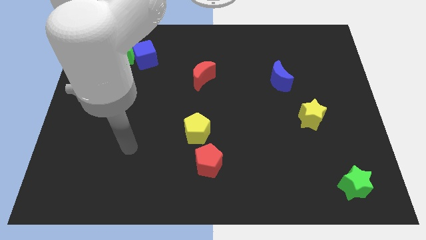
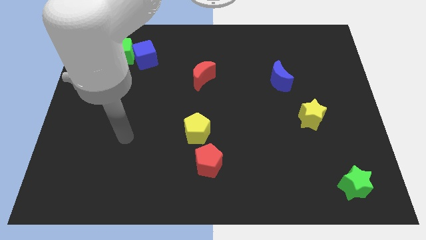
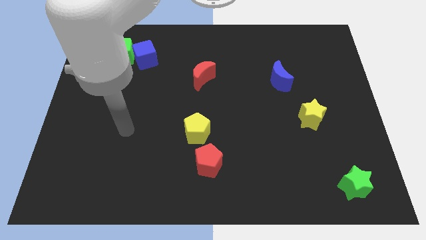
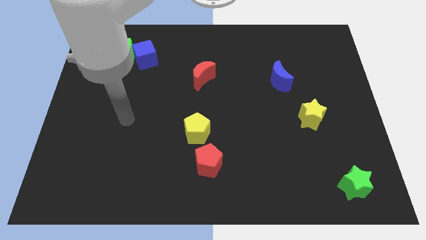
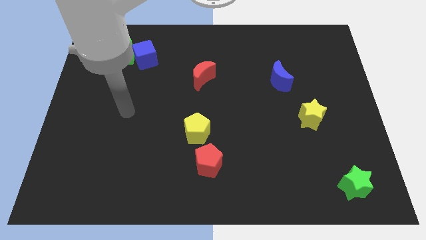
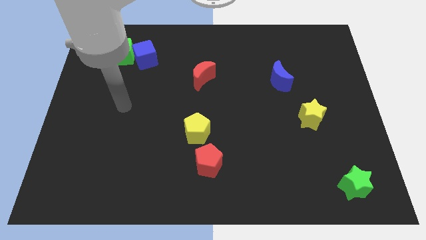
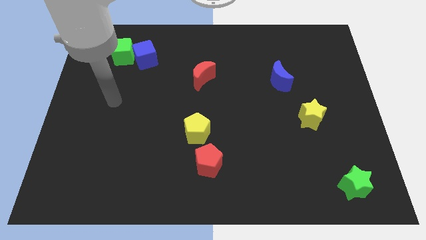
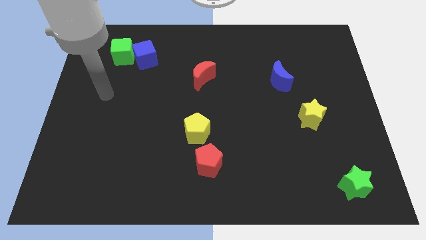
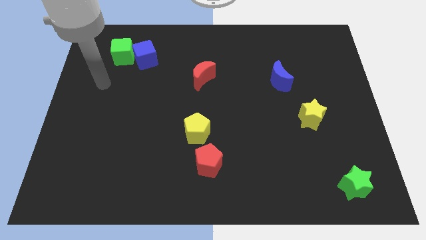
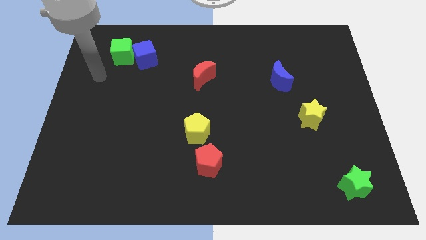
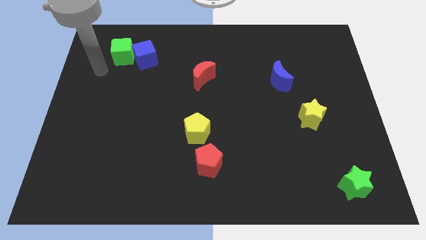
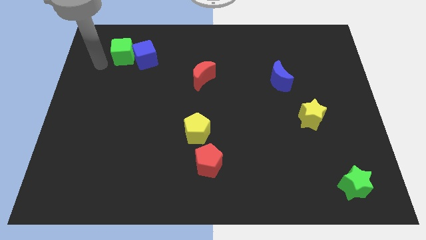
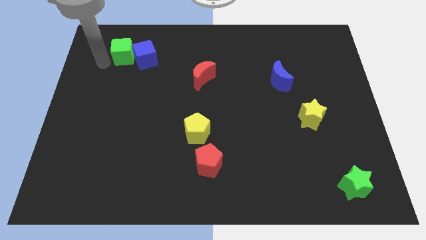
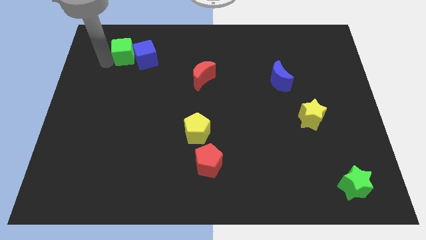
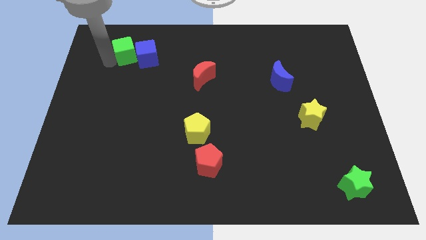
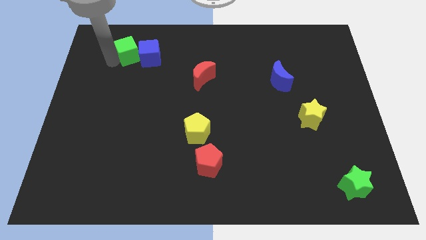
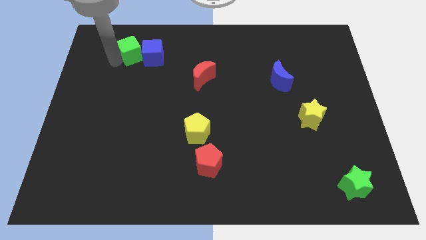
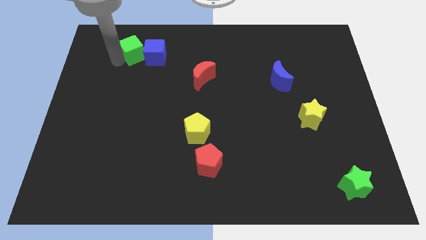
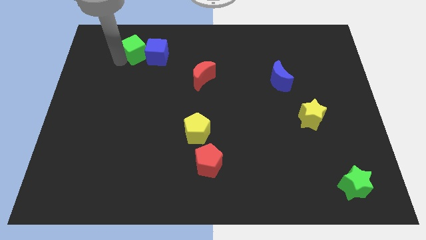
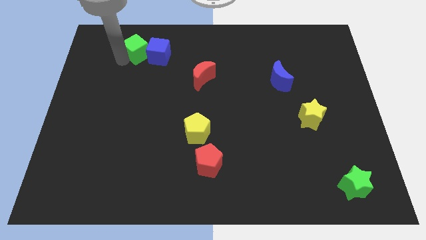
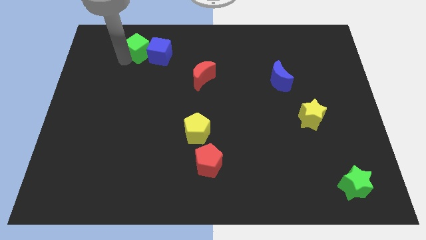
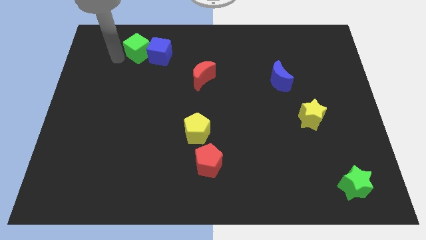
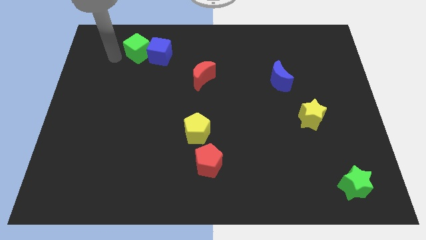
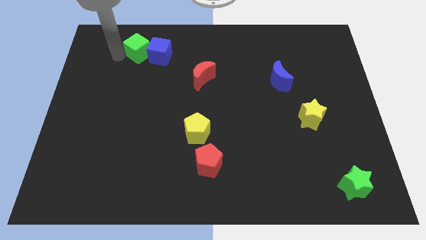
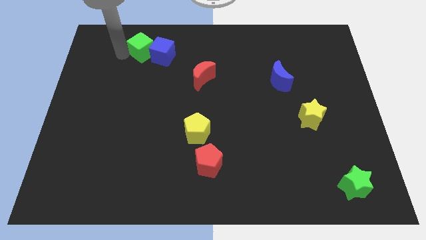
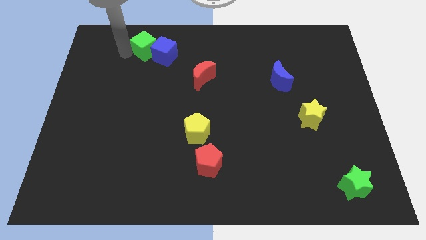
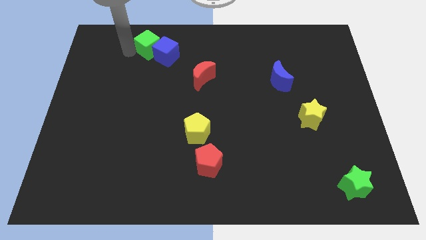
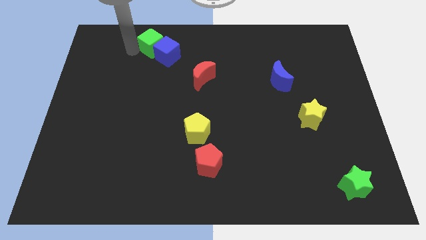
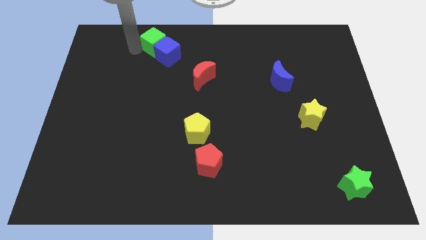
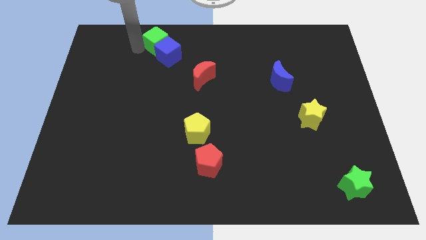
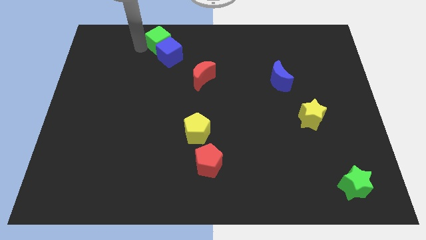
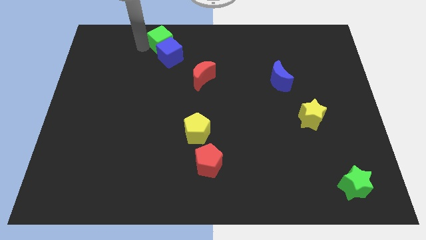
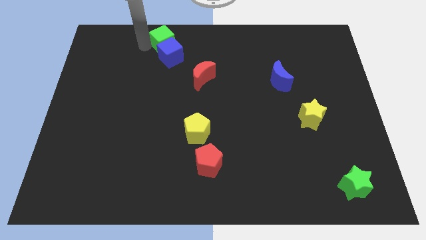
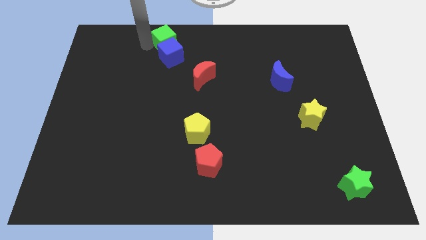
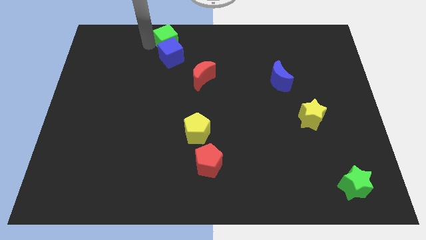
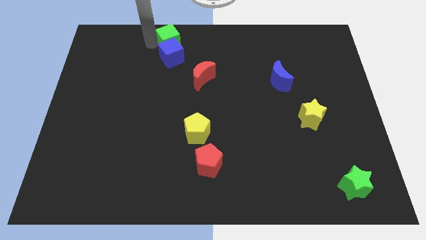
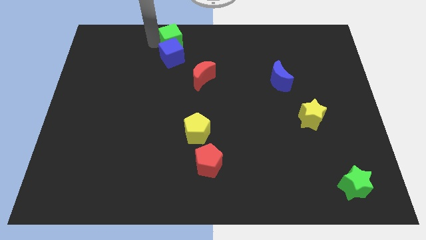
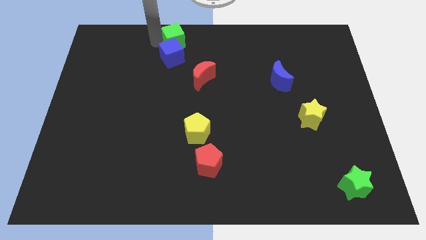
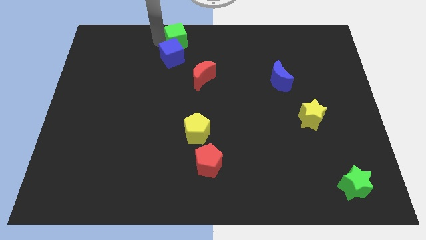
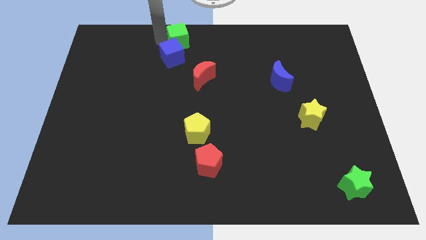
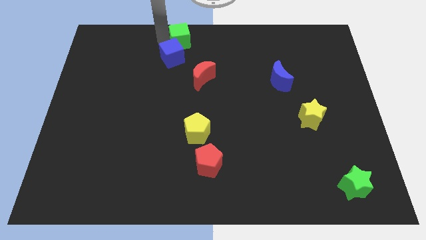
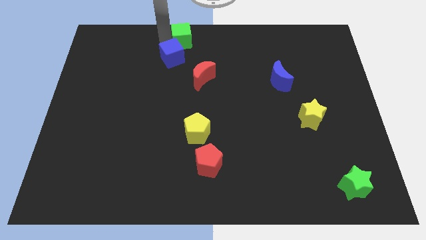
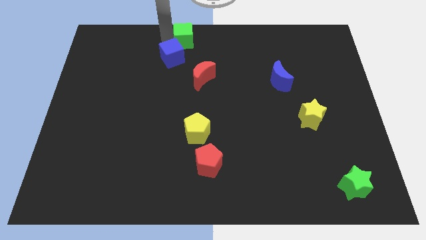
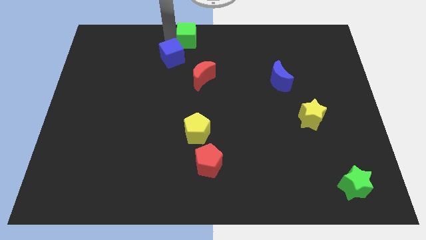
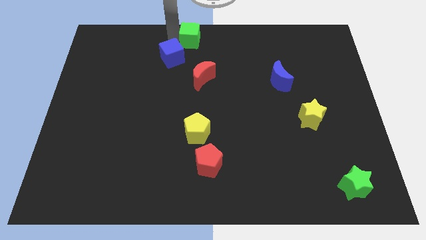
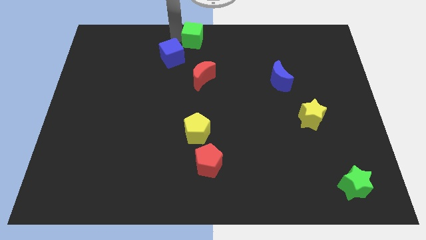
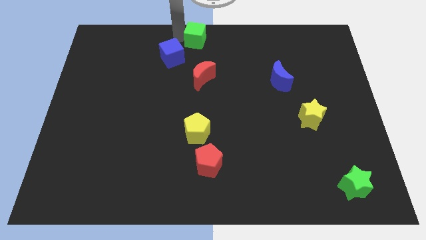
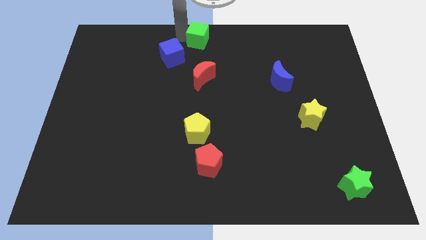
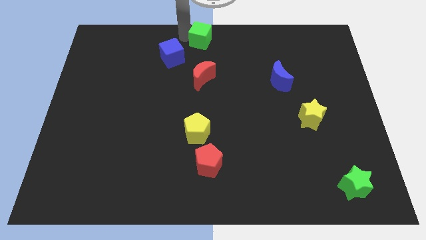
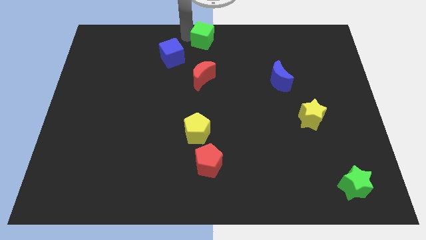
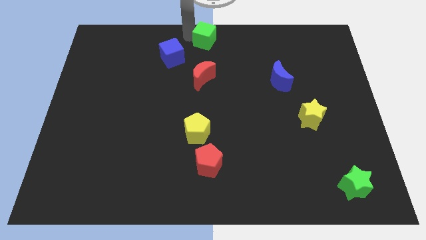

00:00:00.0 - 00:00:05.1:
move the green cube to the right

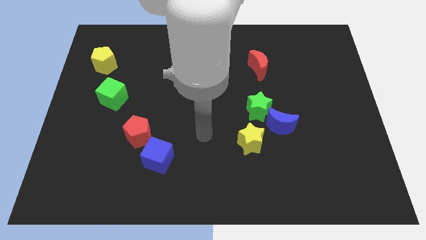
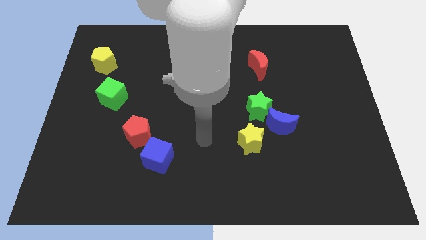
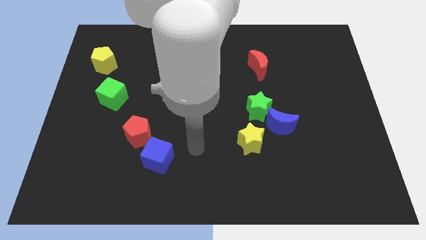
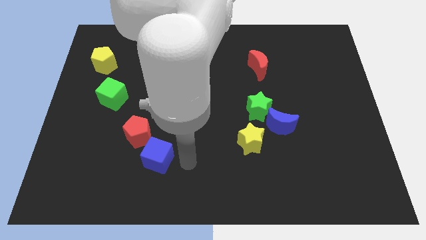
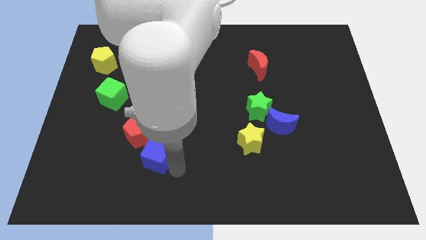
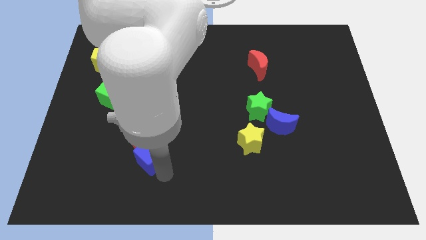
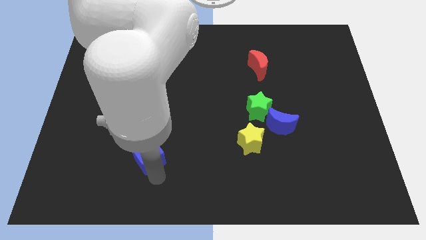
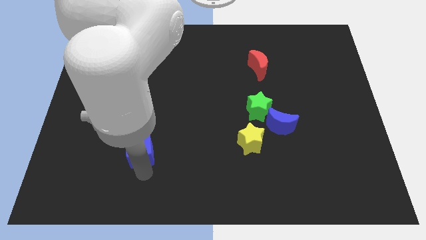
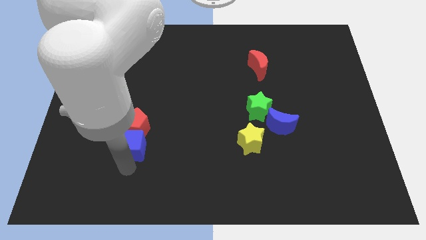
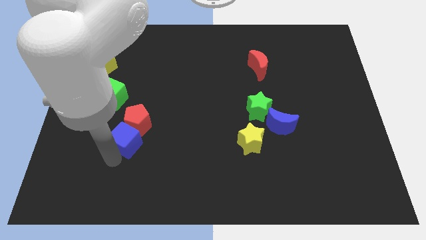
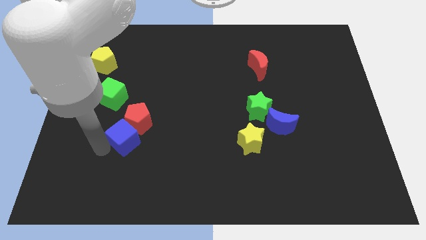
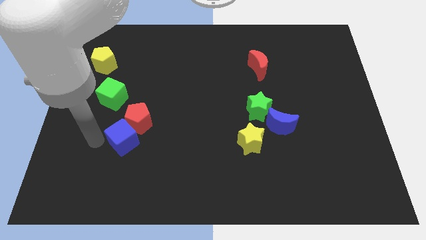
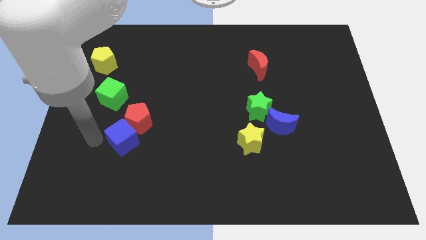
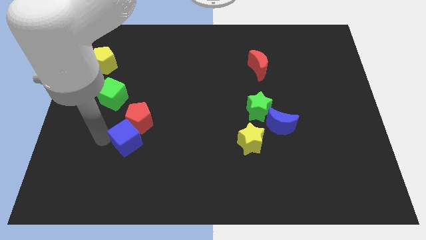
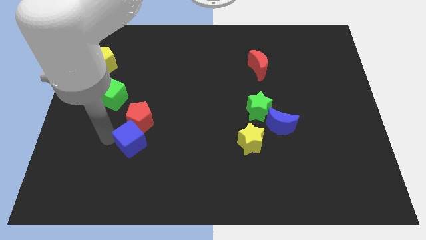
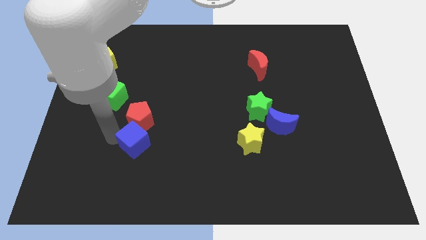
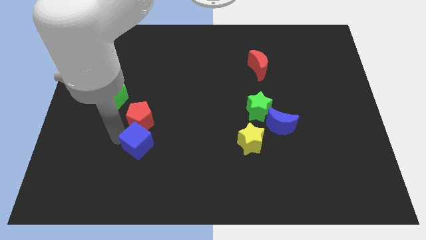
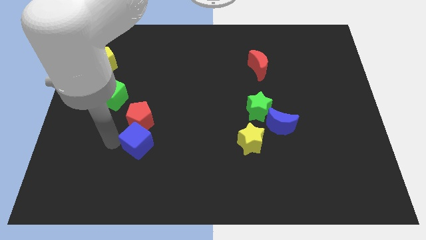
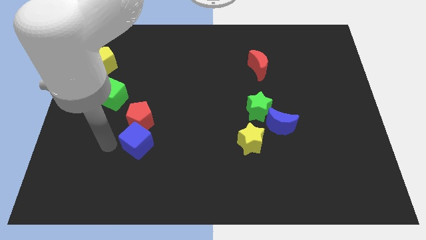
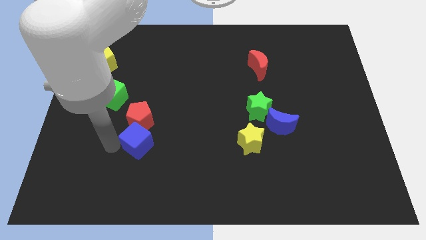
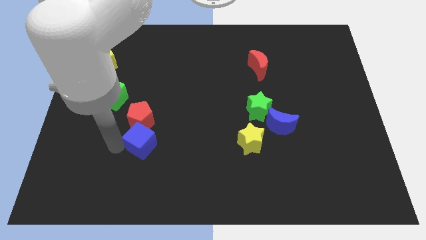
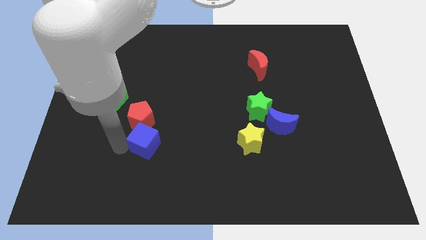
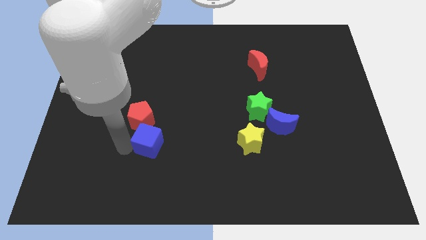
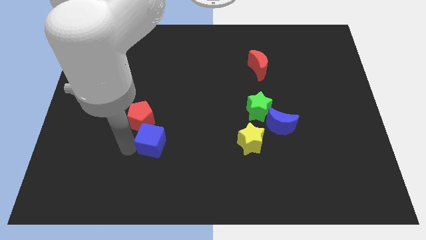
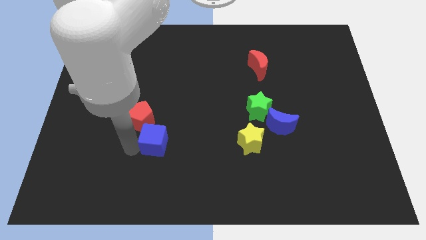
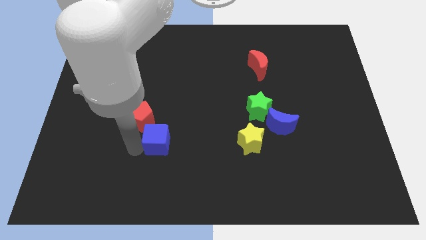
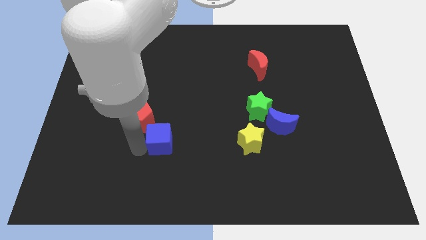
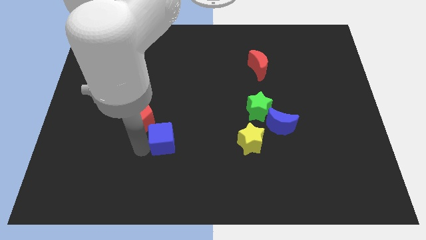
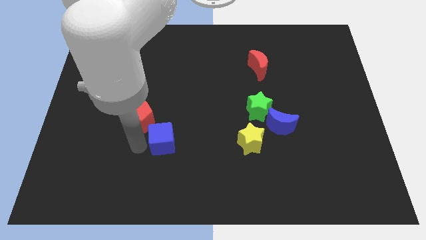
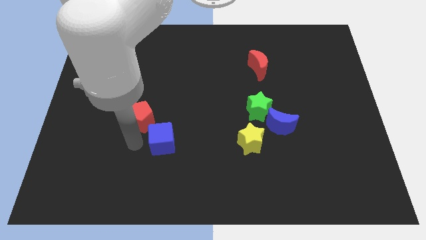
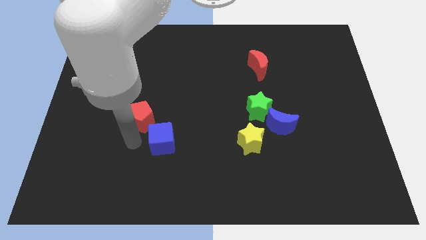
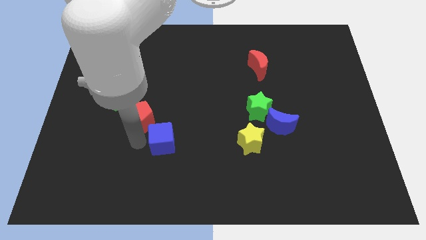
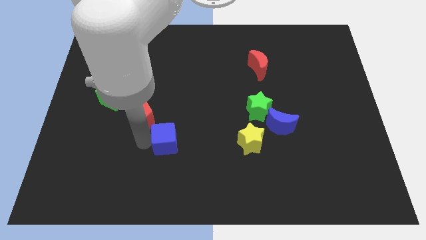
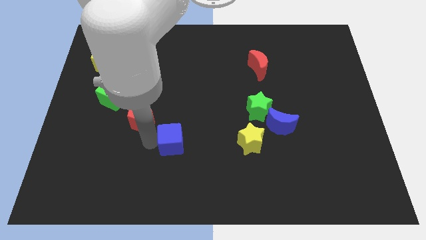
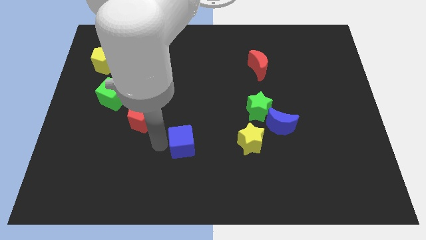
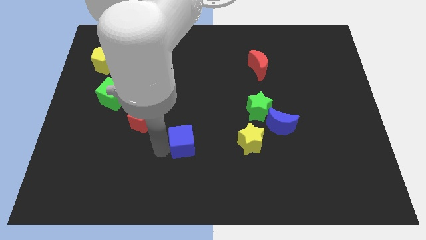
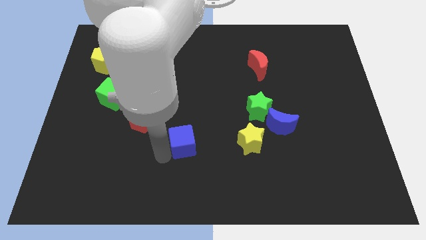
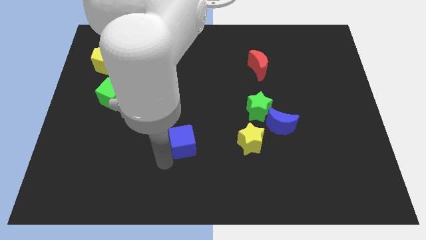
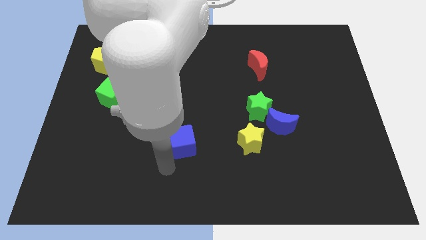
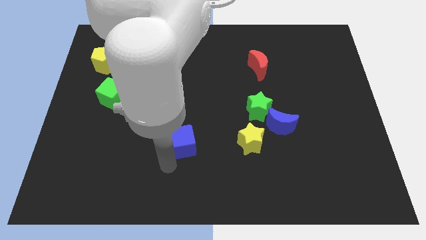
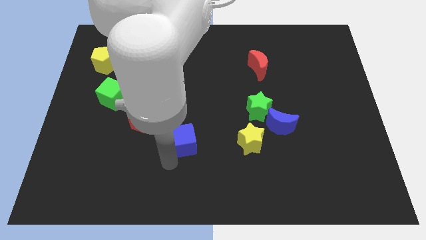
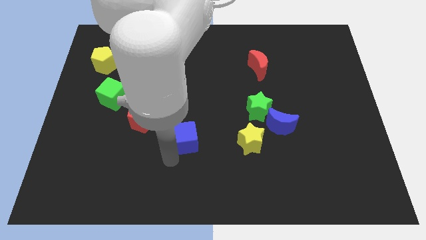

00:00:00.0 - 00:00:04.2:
slightly move the blue cube upwards and to the right
